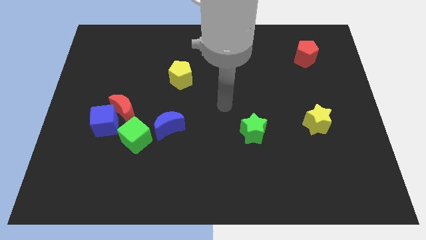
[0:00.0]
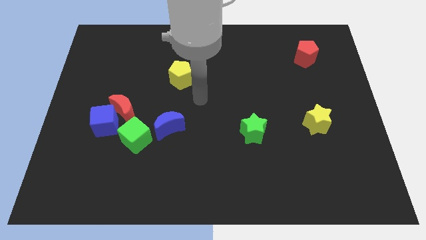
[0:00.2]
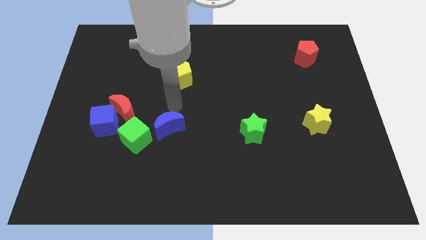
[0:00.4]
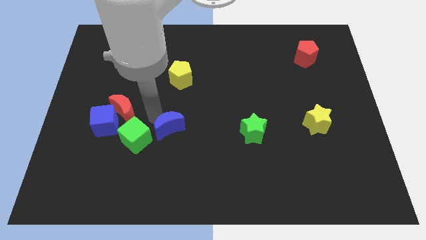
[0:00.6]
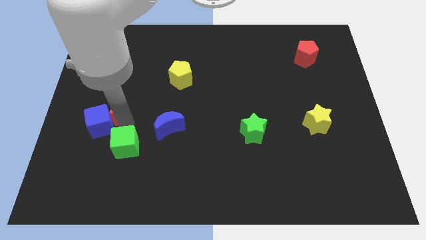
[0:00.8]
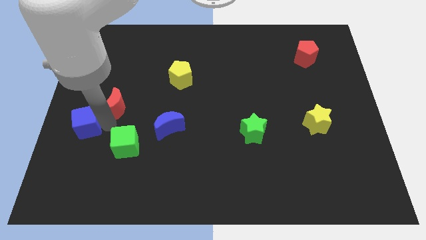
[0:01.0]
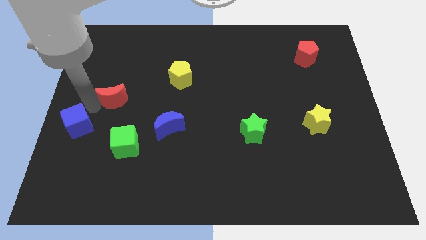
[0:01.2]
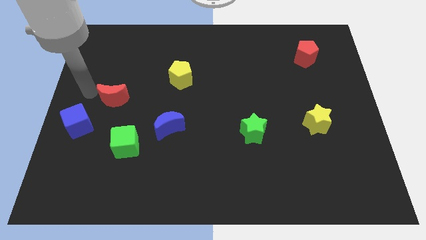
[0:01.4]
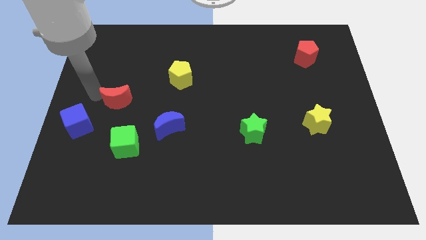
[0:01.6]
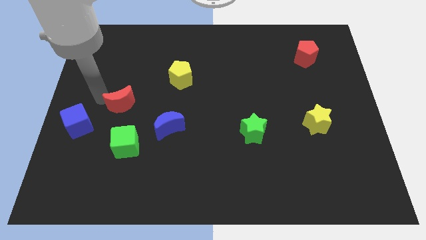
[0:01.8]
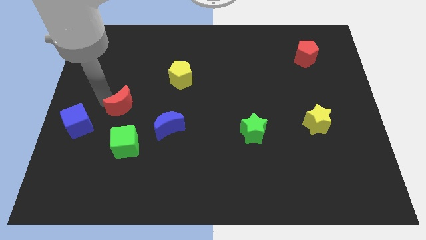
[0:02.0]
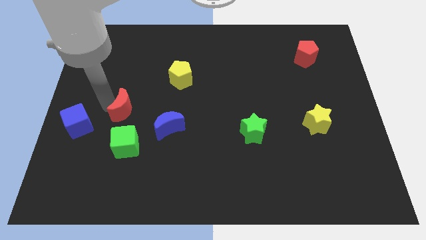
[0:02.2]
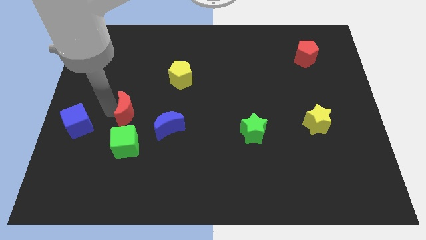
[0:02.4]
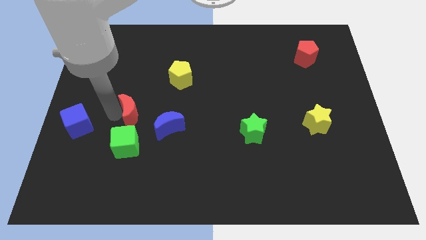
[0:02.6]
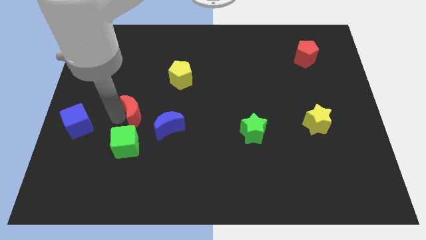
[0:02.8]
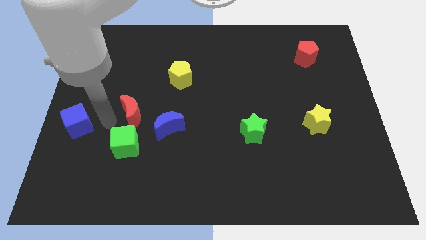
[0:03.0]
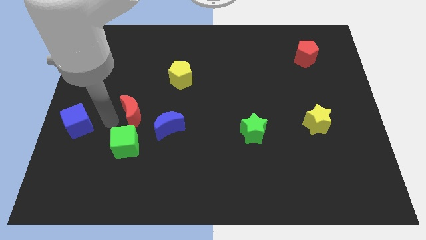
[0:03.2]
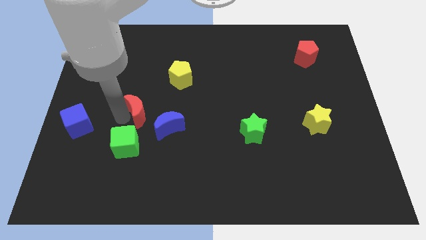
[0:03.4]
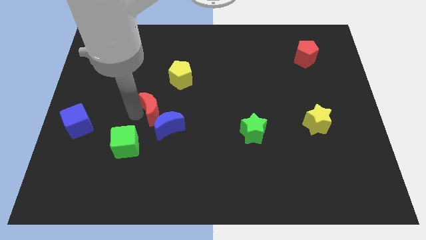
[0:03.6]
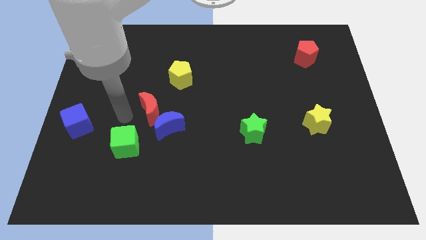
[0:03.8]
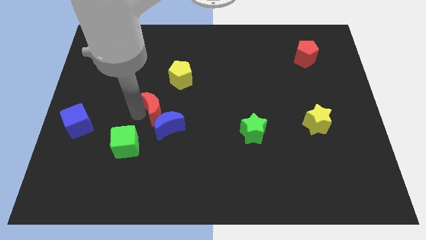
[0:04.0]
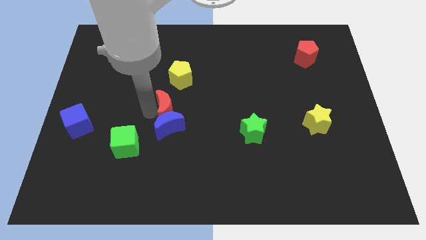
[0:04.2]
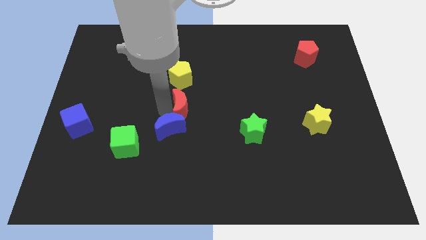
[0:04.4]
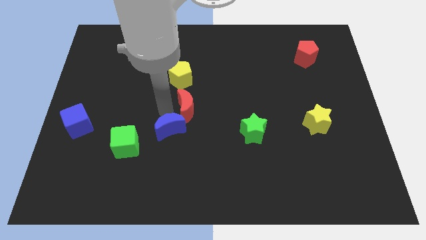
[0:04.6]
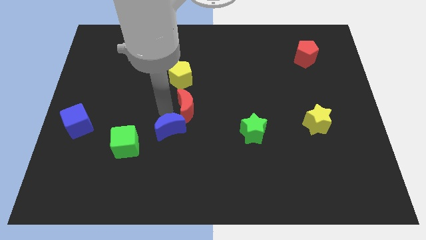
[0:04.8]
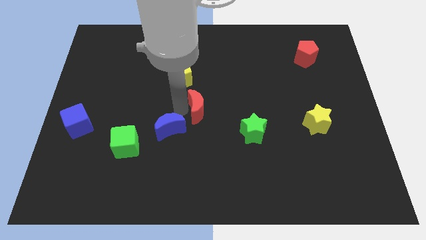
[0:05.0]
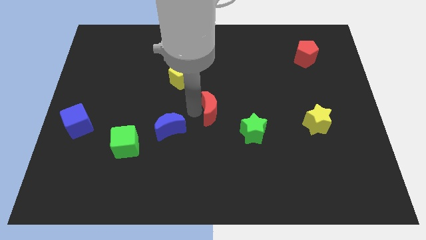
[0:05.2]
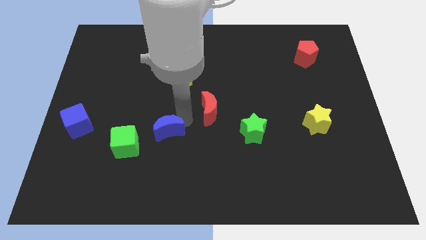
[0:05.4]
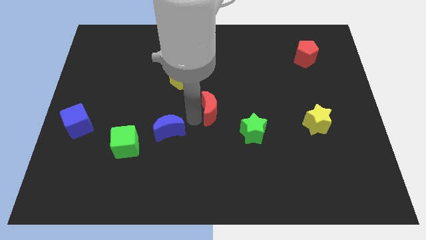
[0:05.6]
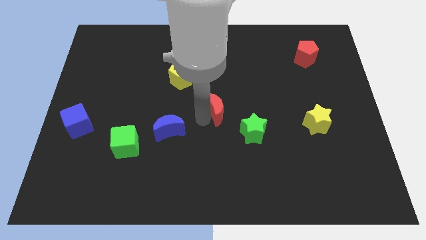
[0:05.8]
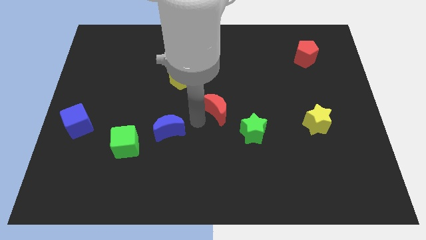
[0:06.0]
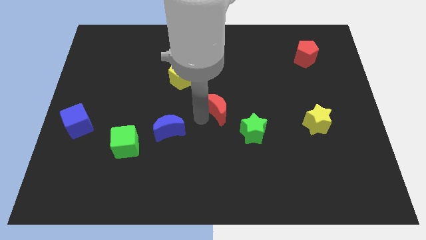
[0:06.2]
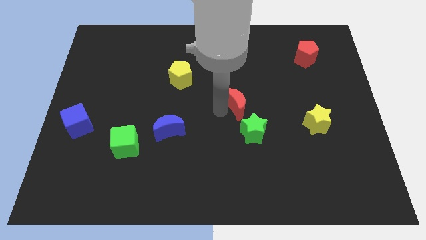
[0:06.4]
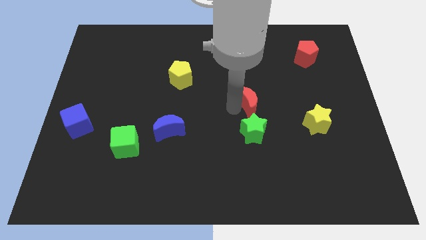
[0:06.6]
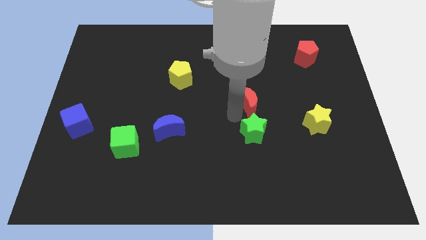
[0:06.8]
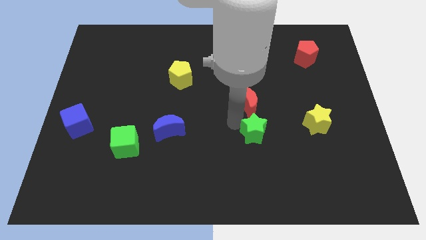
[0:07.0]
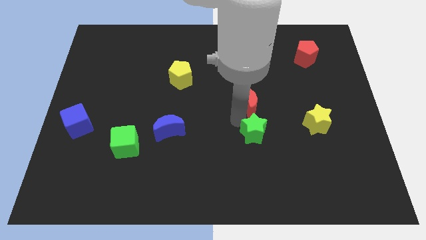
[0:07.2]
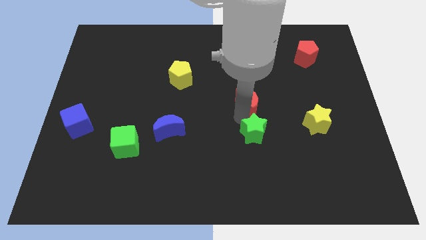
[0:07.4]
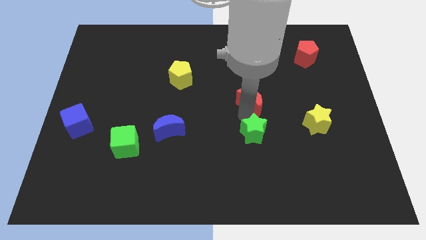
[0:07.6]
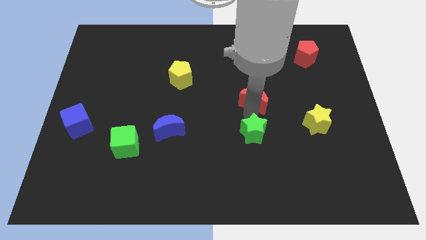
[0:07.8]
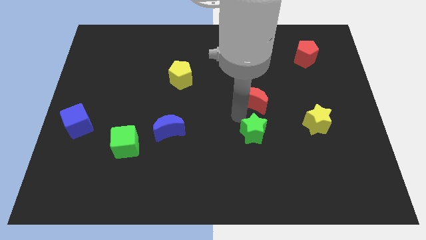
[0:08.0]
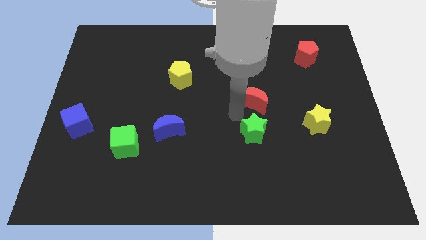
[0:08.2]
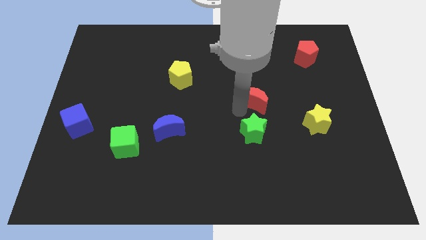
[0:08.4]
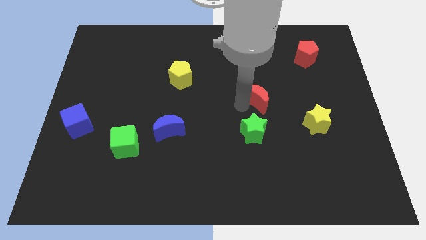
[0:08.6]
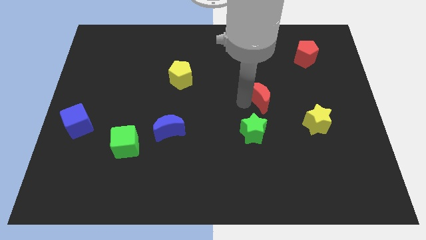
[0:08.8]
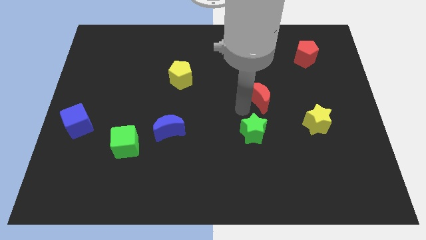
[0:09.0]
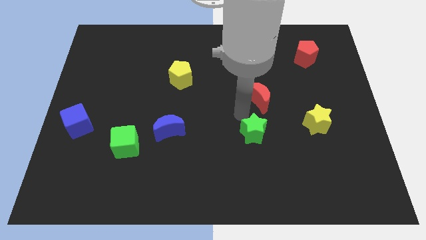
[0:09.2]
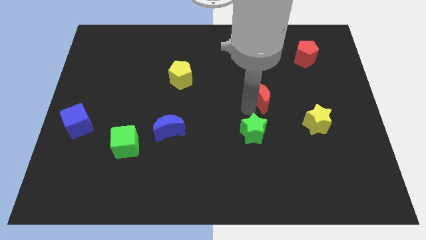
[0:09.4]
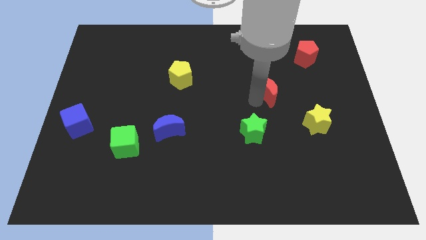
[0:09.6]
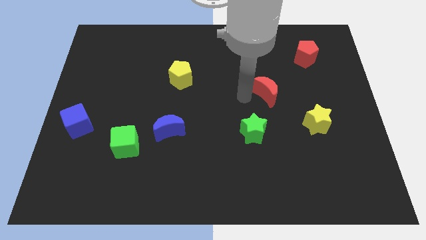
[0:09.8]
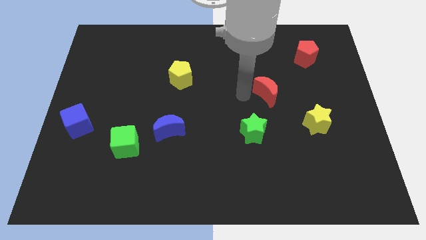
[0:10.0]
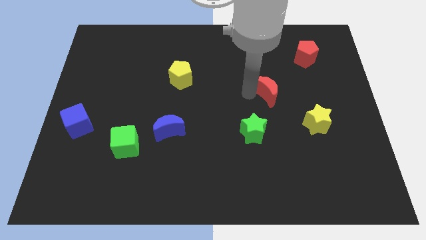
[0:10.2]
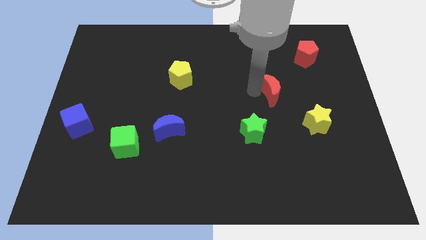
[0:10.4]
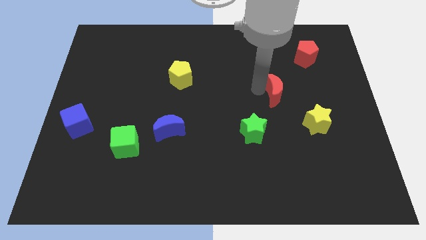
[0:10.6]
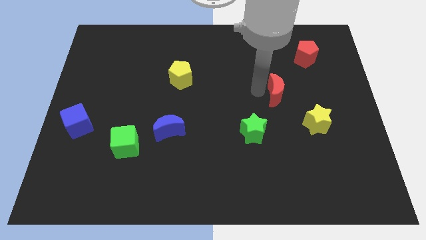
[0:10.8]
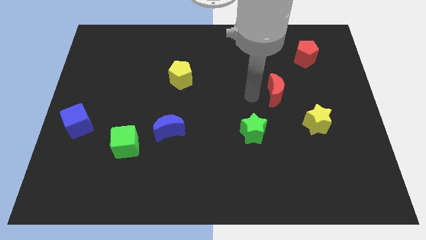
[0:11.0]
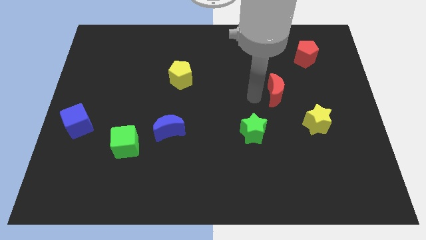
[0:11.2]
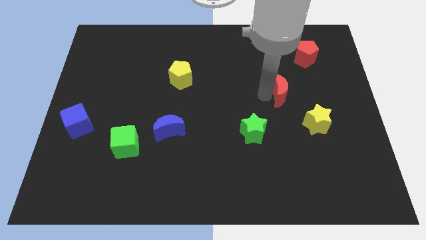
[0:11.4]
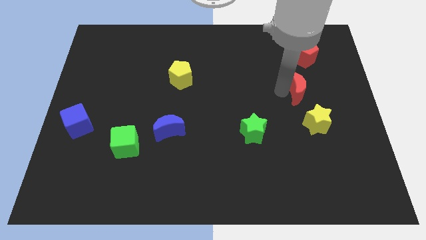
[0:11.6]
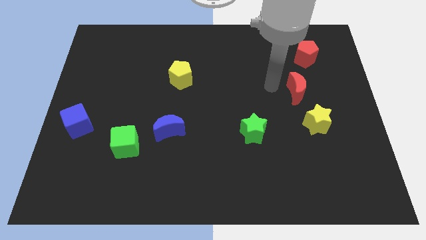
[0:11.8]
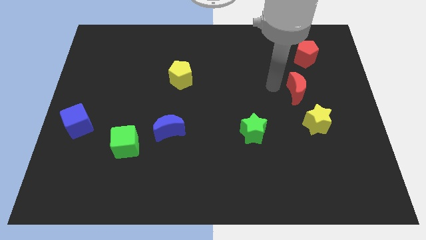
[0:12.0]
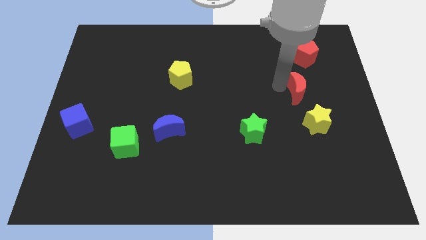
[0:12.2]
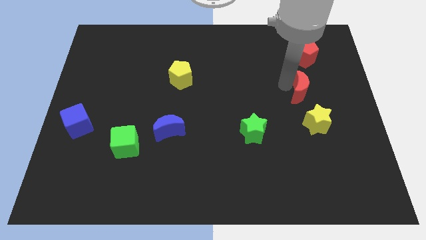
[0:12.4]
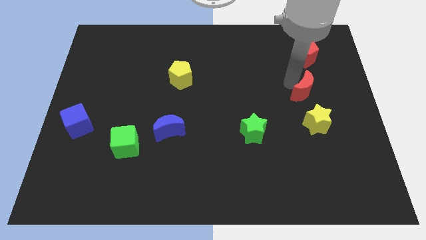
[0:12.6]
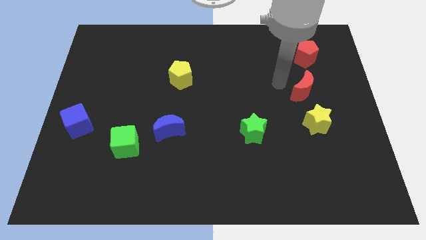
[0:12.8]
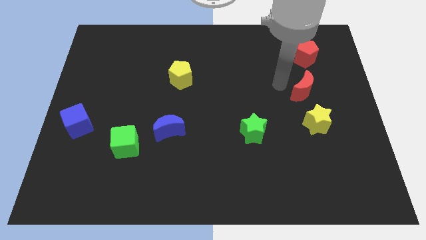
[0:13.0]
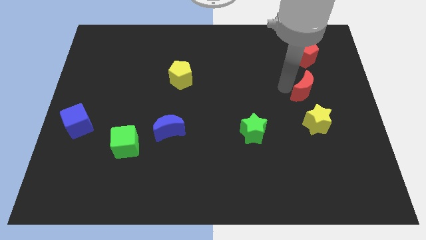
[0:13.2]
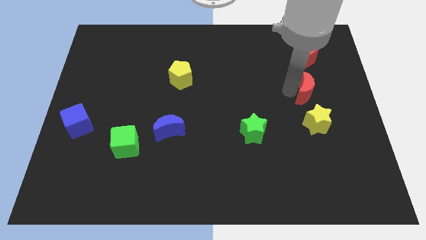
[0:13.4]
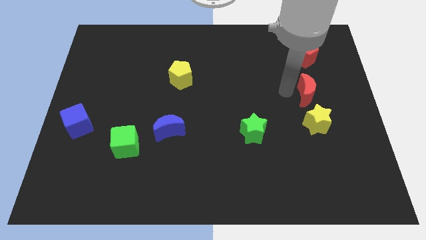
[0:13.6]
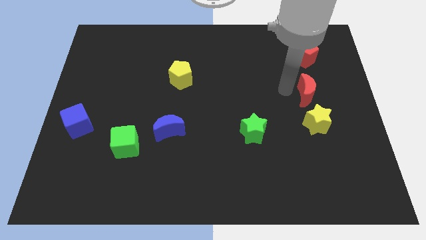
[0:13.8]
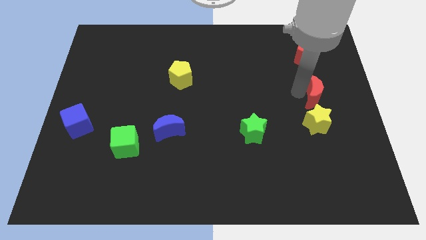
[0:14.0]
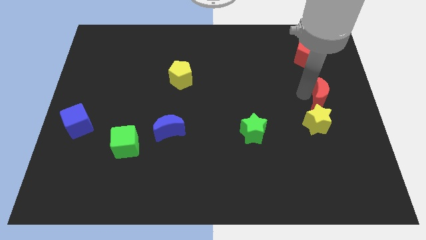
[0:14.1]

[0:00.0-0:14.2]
push the red moon to the right side of the board
